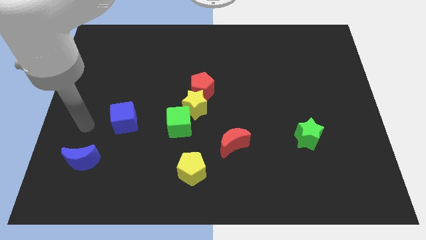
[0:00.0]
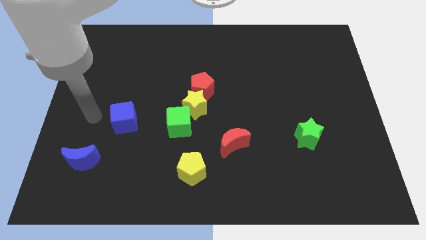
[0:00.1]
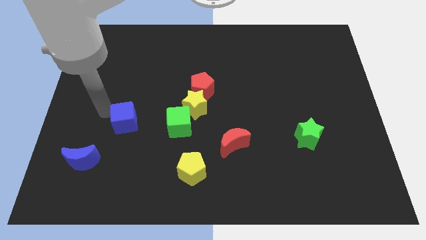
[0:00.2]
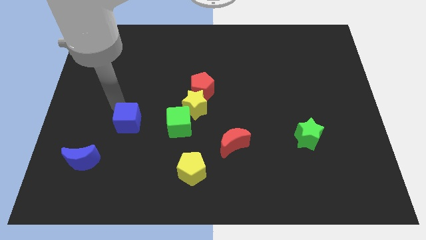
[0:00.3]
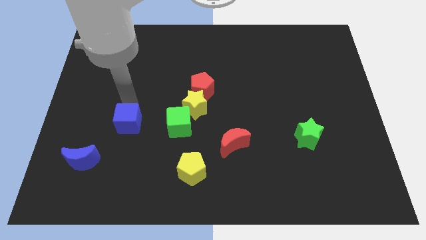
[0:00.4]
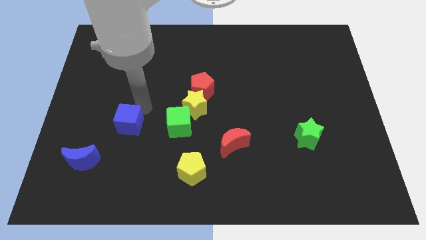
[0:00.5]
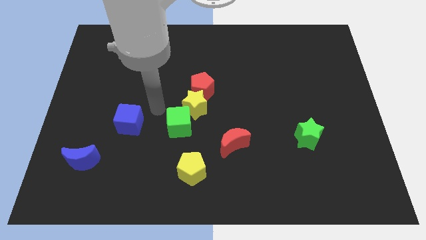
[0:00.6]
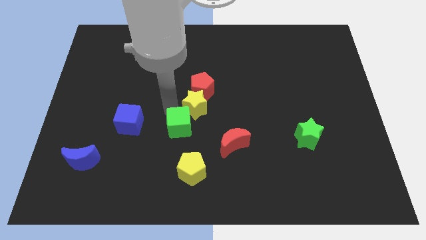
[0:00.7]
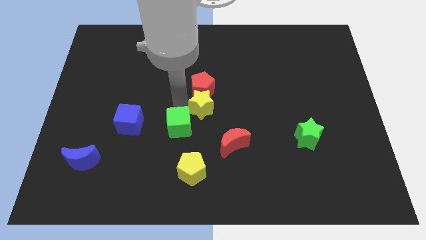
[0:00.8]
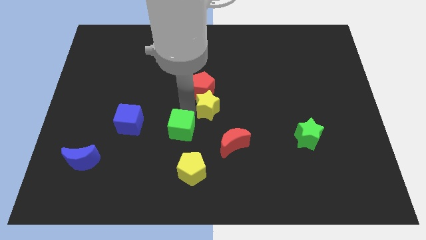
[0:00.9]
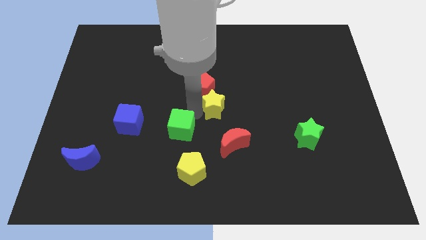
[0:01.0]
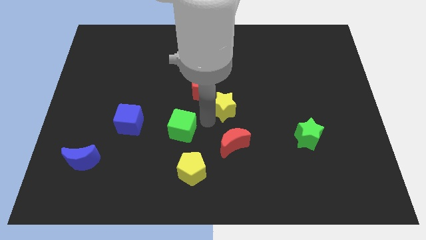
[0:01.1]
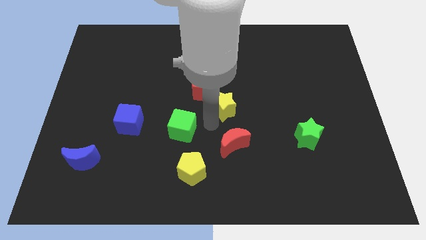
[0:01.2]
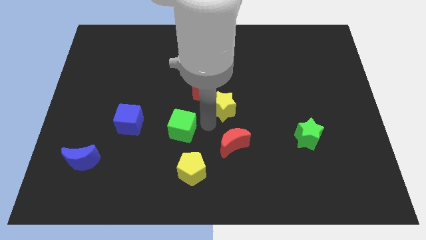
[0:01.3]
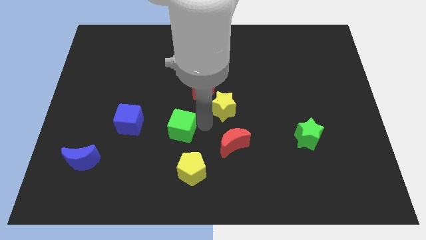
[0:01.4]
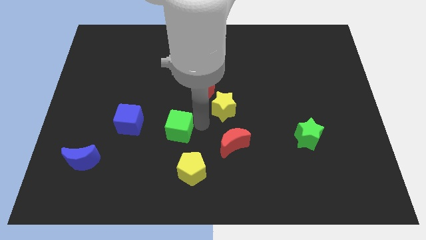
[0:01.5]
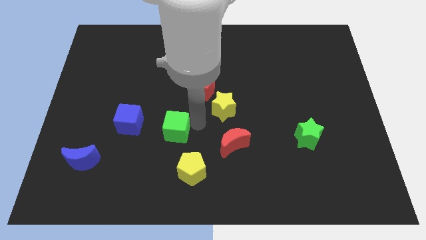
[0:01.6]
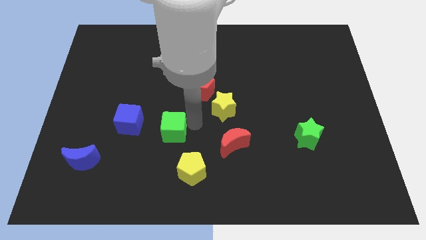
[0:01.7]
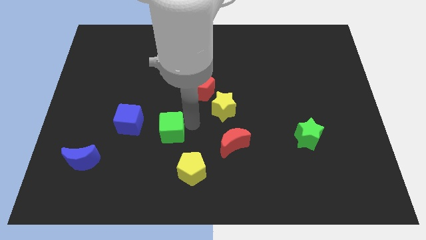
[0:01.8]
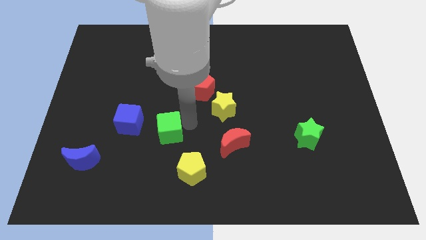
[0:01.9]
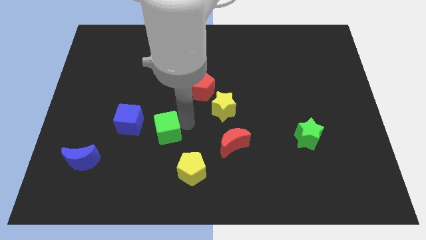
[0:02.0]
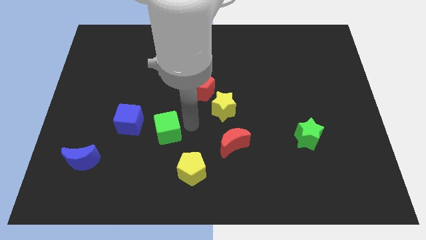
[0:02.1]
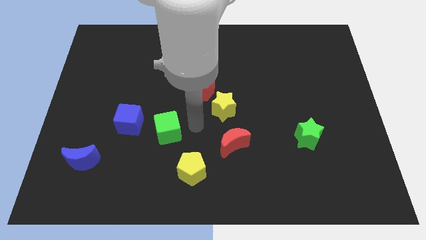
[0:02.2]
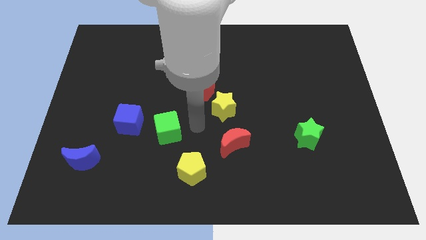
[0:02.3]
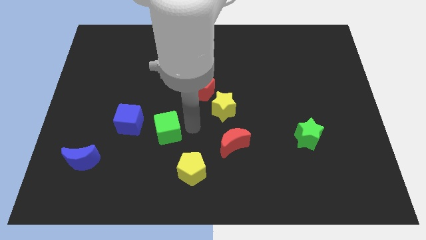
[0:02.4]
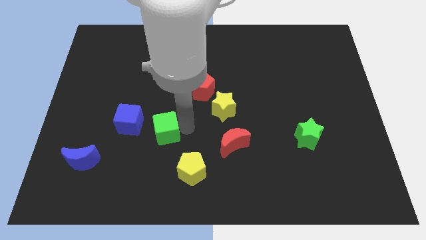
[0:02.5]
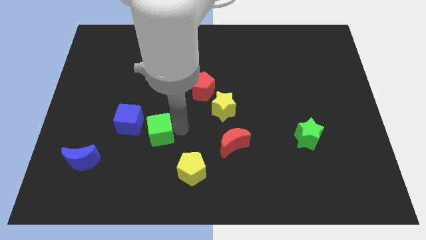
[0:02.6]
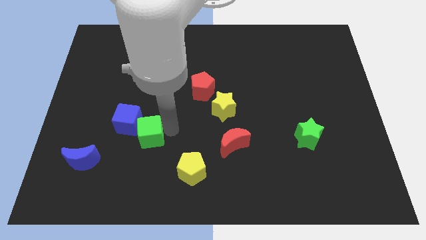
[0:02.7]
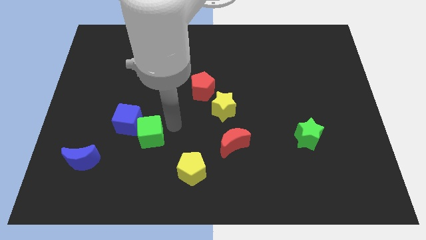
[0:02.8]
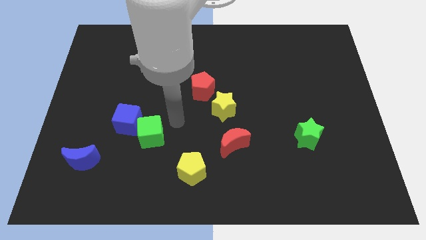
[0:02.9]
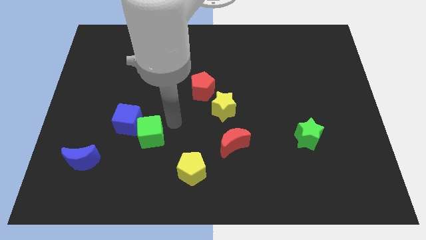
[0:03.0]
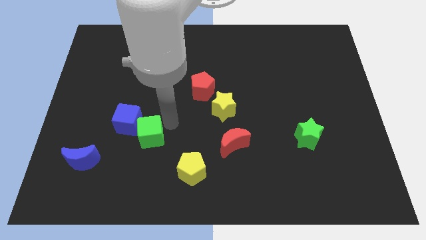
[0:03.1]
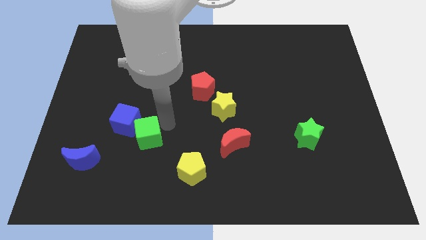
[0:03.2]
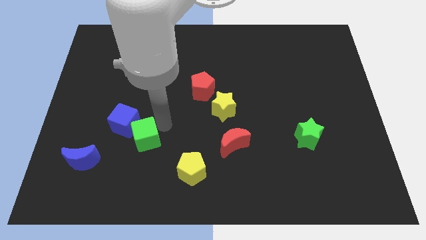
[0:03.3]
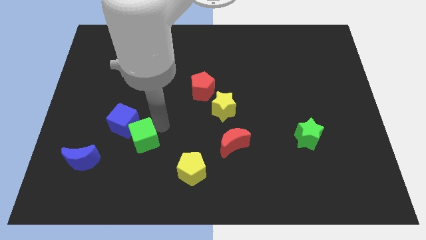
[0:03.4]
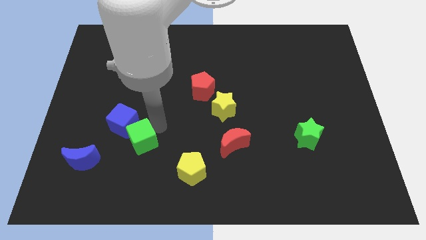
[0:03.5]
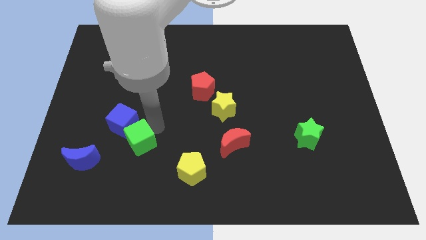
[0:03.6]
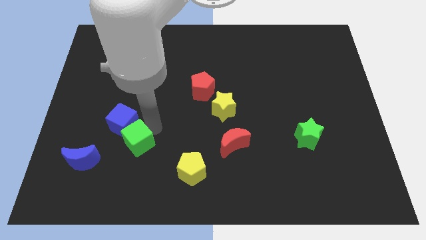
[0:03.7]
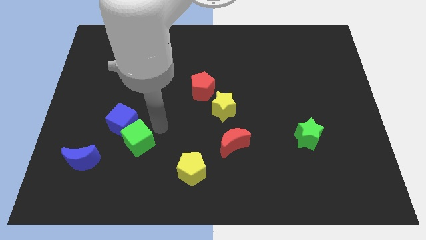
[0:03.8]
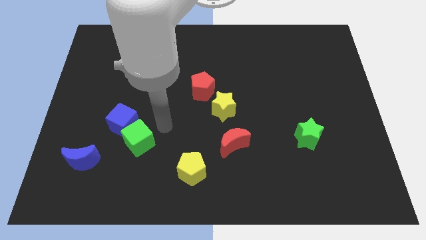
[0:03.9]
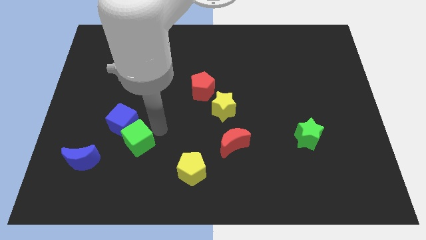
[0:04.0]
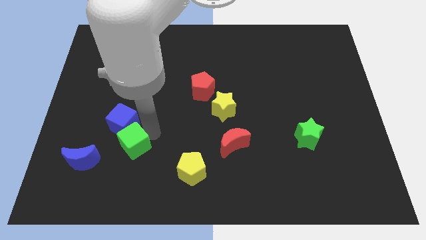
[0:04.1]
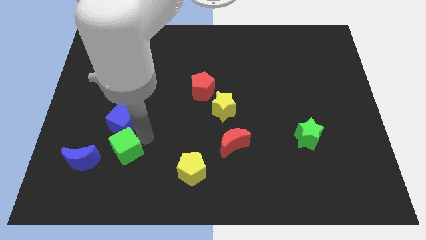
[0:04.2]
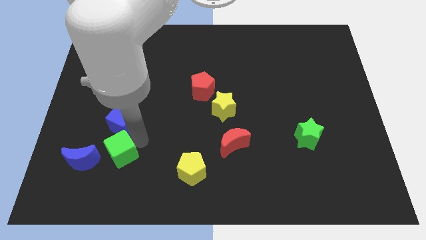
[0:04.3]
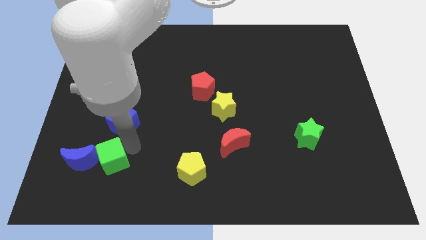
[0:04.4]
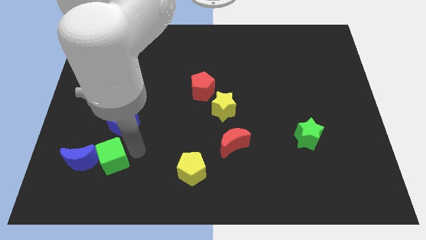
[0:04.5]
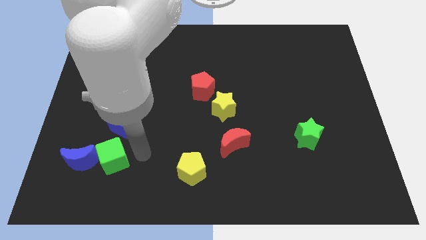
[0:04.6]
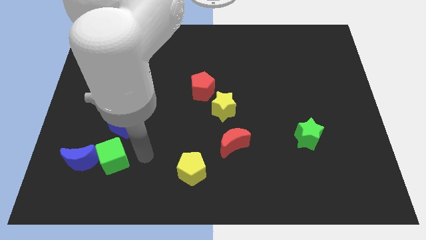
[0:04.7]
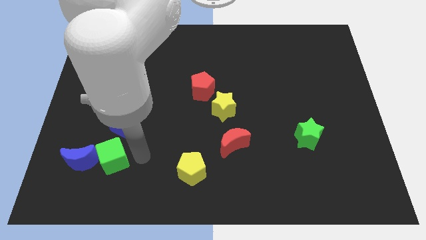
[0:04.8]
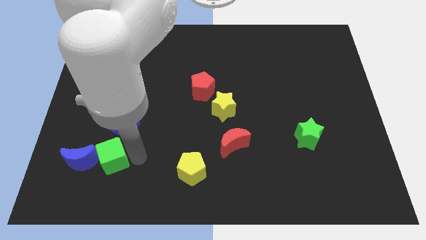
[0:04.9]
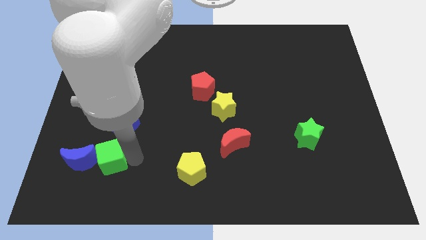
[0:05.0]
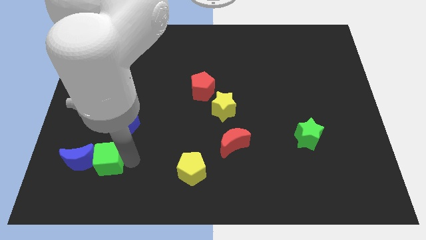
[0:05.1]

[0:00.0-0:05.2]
move the green cube close to the blue moon

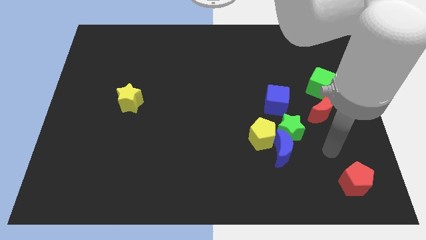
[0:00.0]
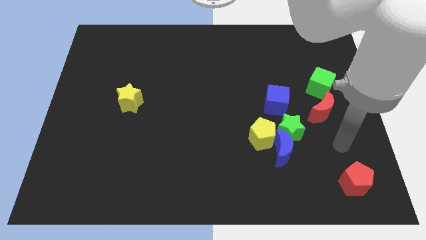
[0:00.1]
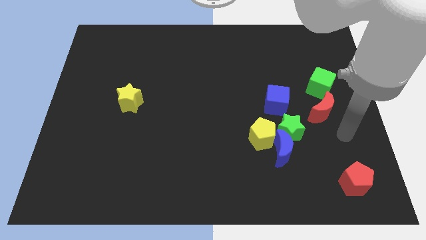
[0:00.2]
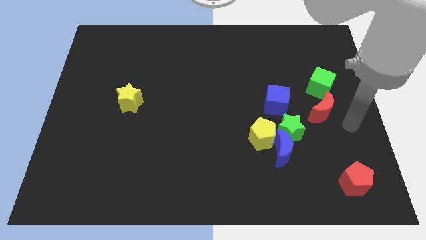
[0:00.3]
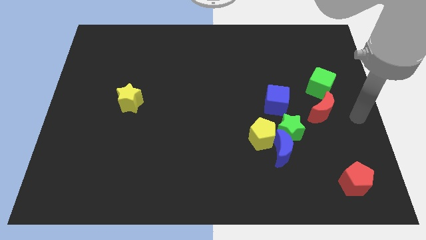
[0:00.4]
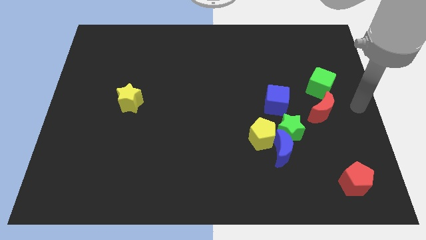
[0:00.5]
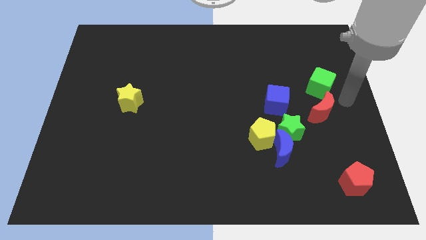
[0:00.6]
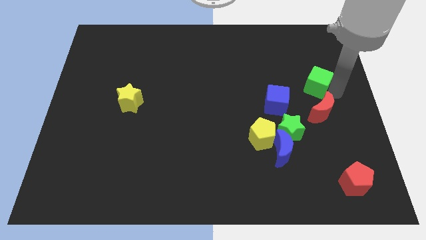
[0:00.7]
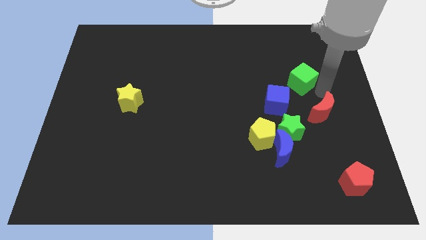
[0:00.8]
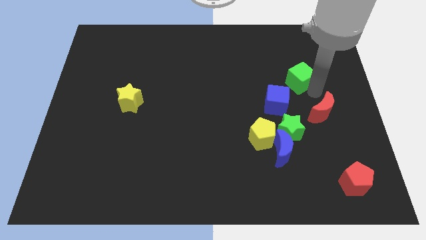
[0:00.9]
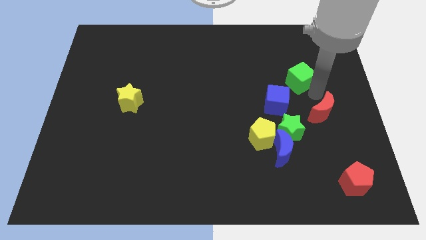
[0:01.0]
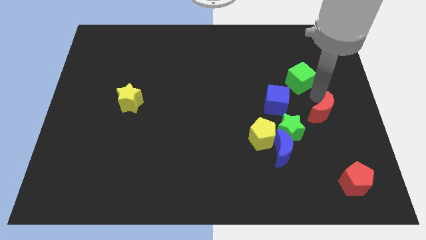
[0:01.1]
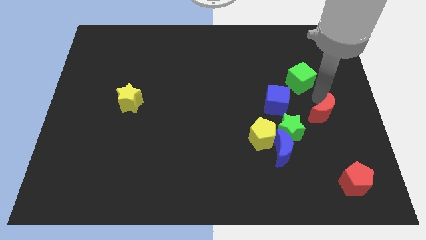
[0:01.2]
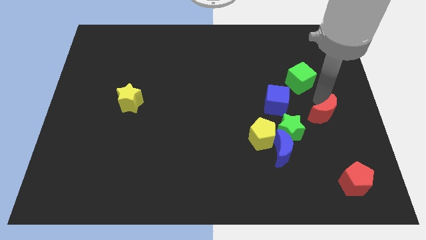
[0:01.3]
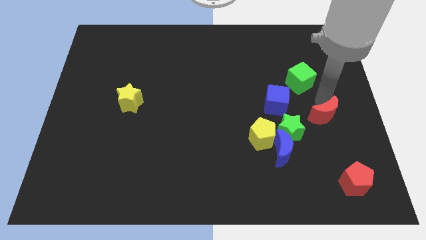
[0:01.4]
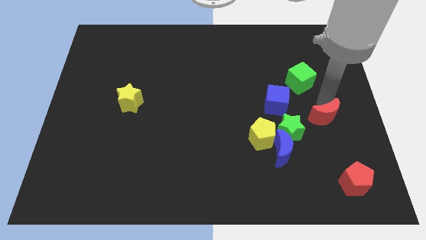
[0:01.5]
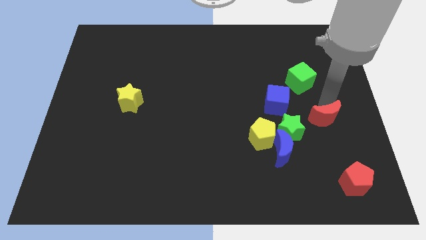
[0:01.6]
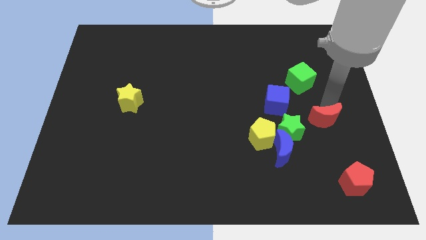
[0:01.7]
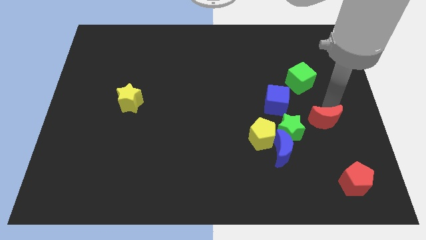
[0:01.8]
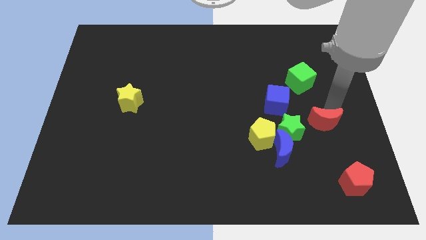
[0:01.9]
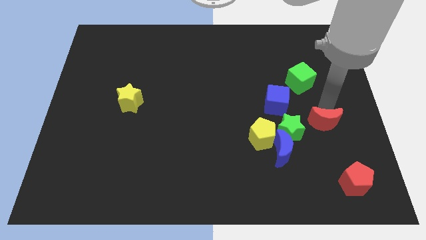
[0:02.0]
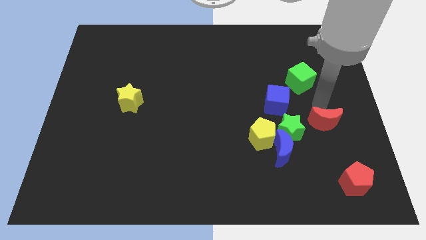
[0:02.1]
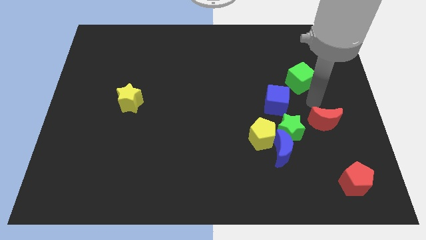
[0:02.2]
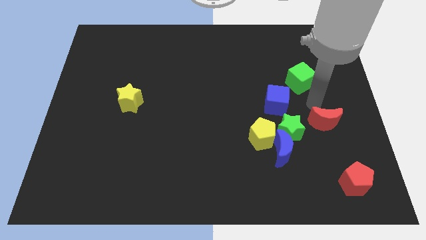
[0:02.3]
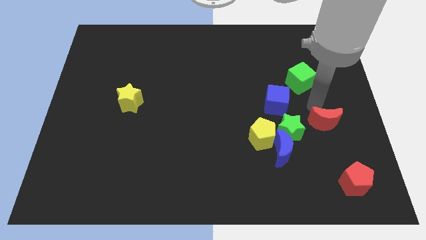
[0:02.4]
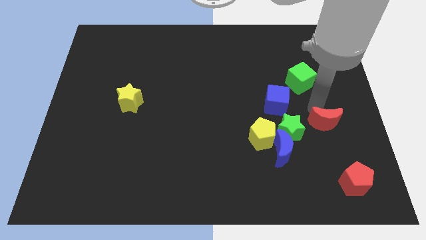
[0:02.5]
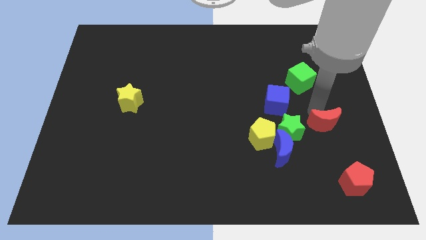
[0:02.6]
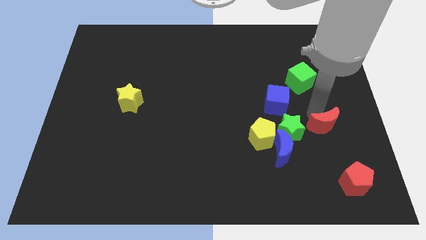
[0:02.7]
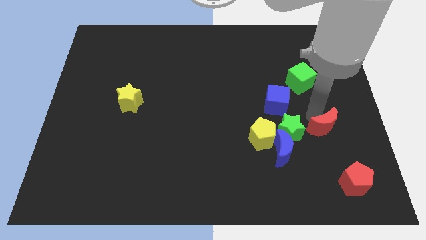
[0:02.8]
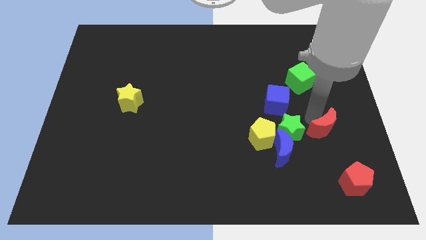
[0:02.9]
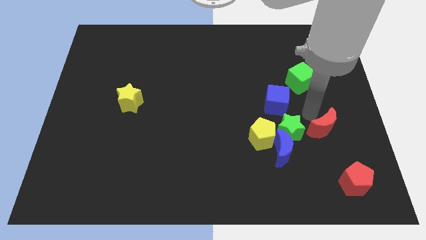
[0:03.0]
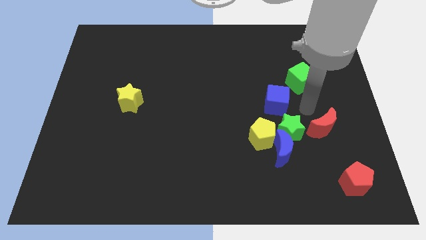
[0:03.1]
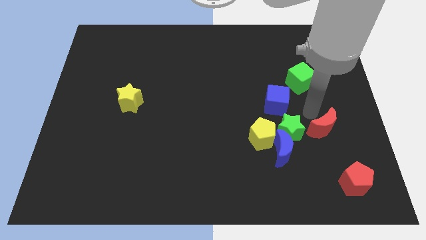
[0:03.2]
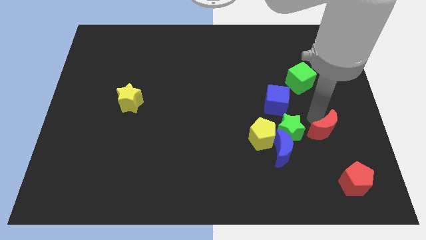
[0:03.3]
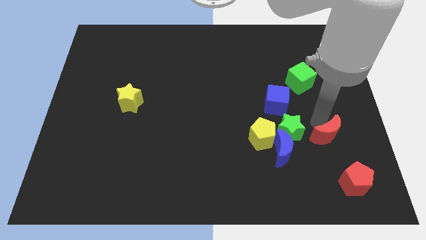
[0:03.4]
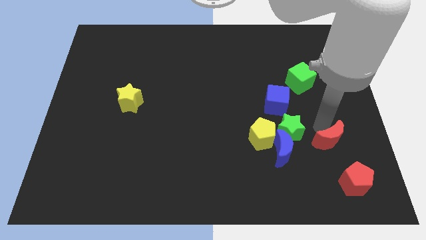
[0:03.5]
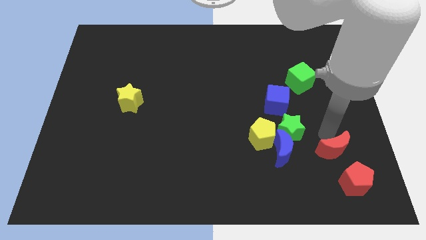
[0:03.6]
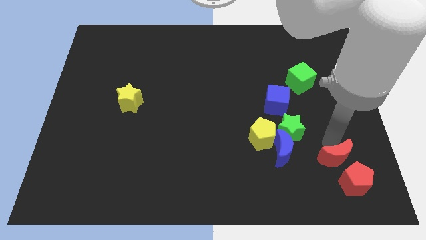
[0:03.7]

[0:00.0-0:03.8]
put the red moon next to the red pentagon
